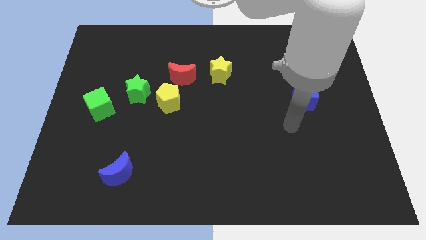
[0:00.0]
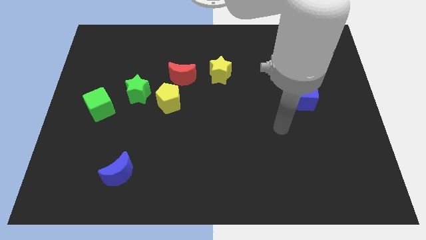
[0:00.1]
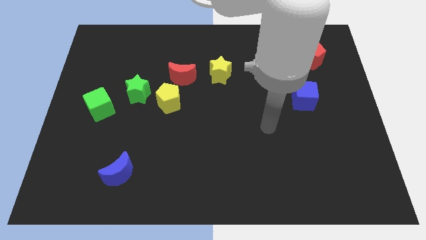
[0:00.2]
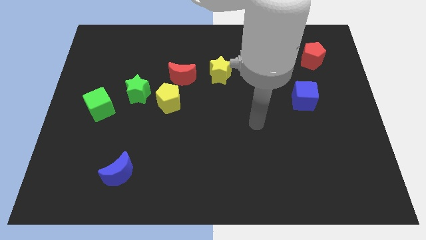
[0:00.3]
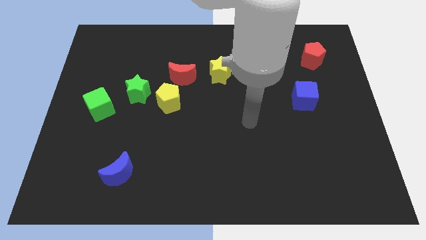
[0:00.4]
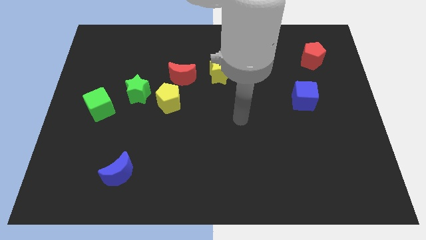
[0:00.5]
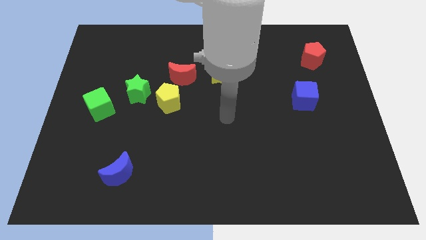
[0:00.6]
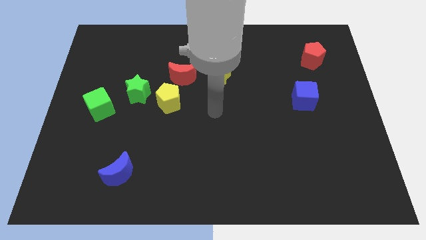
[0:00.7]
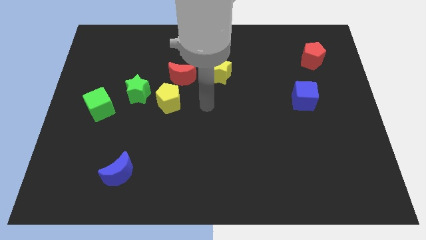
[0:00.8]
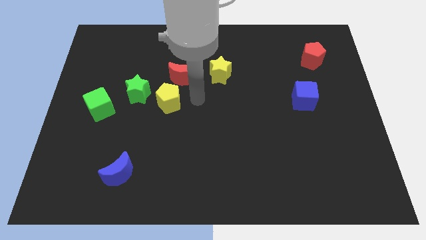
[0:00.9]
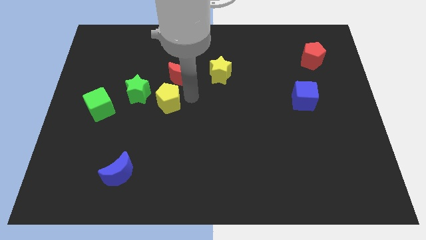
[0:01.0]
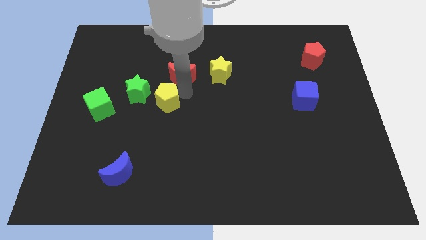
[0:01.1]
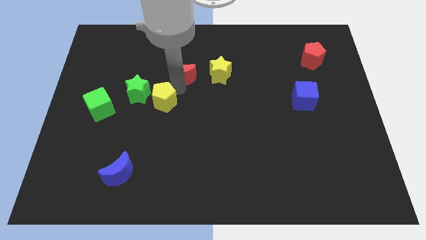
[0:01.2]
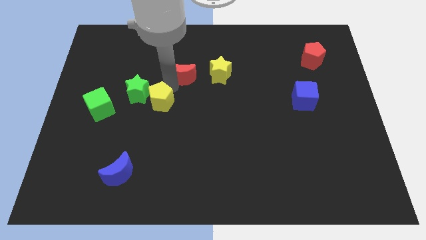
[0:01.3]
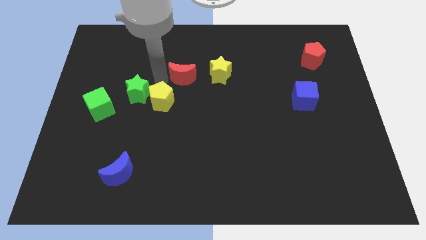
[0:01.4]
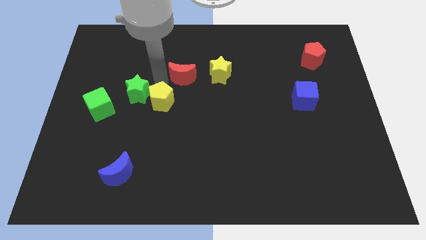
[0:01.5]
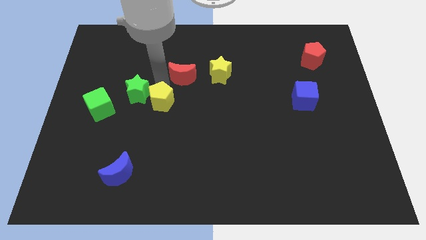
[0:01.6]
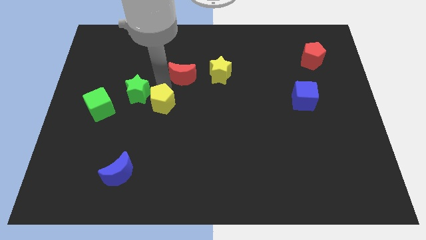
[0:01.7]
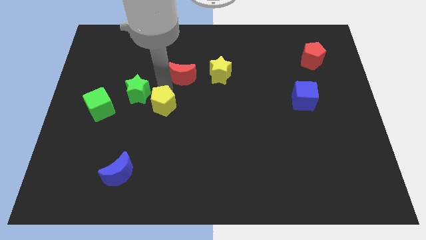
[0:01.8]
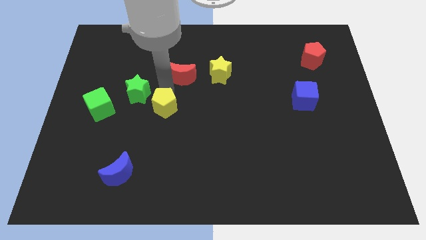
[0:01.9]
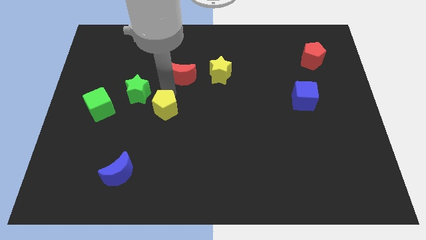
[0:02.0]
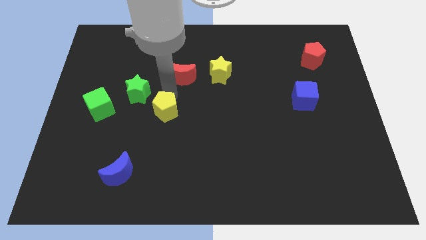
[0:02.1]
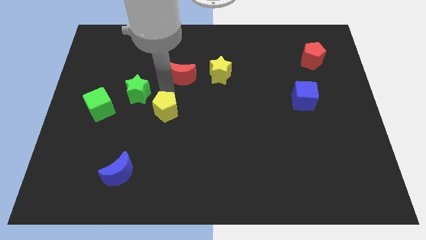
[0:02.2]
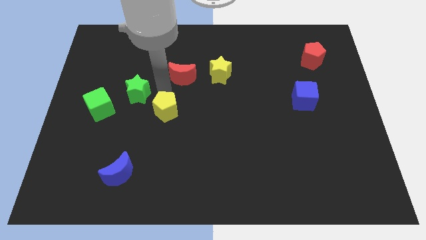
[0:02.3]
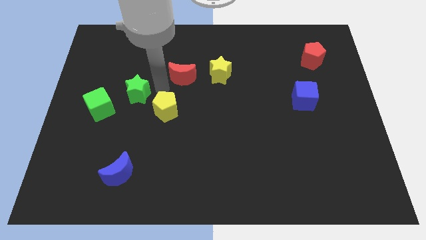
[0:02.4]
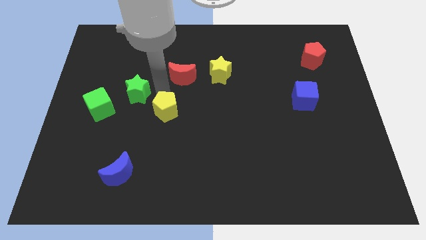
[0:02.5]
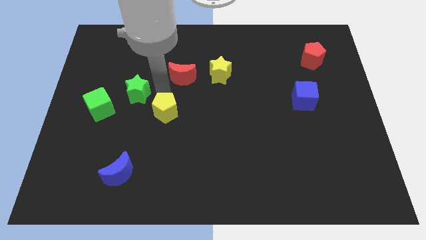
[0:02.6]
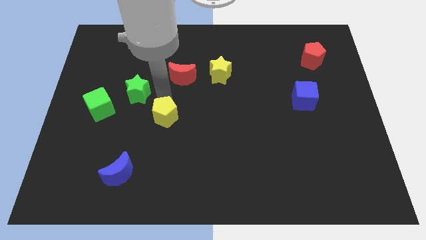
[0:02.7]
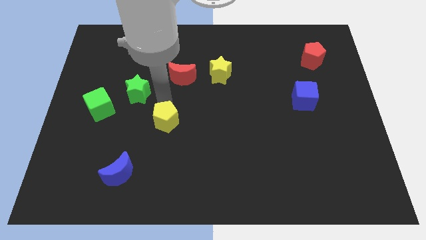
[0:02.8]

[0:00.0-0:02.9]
move the yellow pentagon away from the red moon and green star

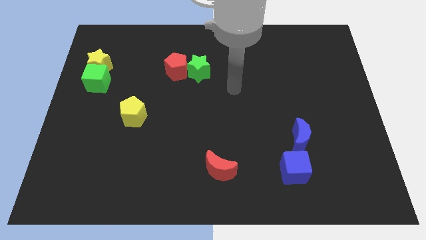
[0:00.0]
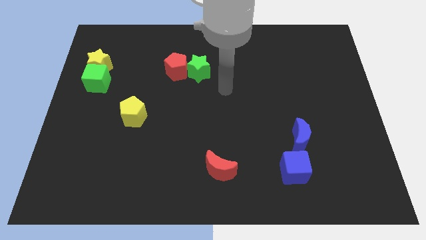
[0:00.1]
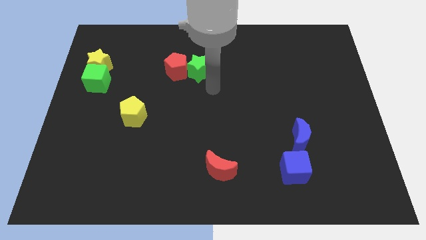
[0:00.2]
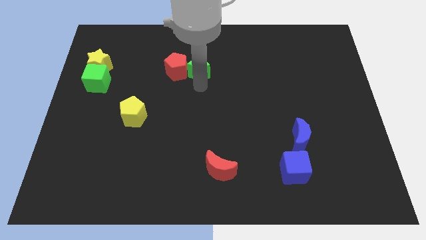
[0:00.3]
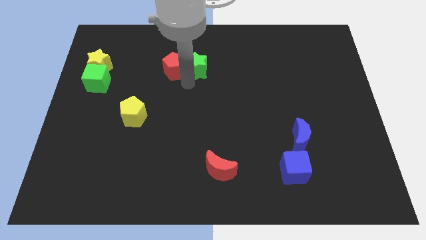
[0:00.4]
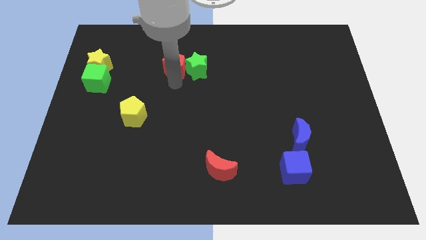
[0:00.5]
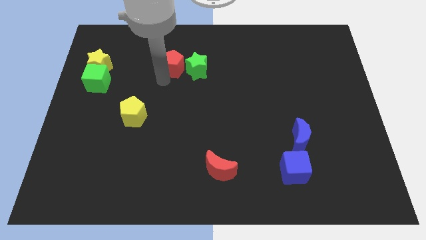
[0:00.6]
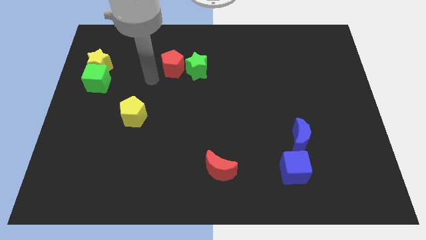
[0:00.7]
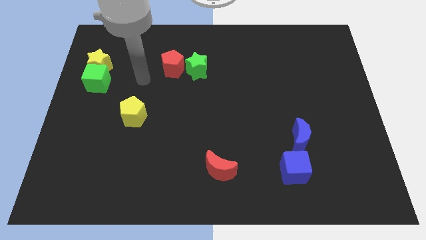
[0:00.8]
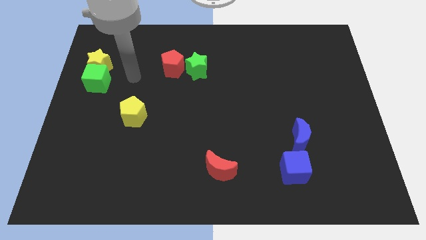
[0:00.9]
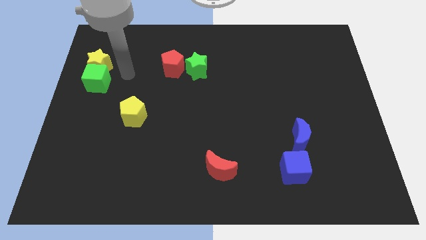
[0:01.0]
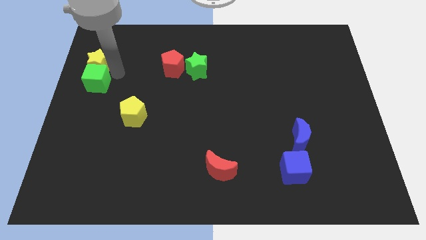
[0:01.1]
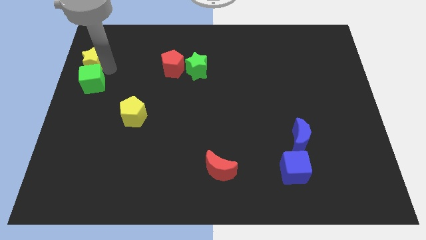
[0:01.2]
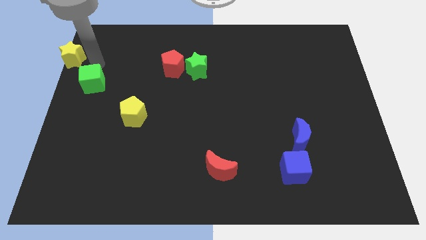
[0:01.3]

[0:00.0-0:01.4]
pull the green cube apart from the yellow star

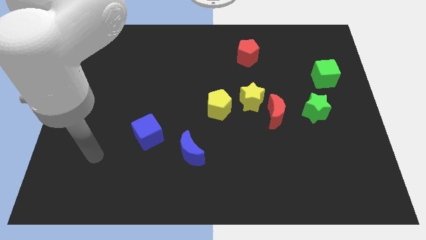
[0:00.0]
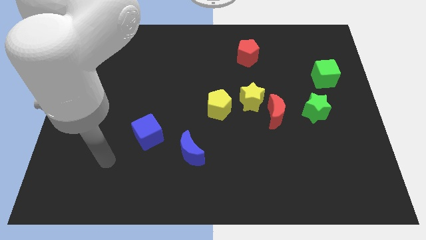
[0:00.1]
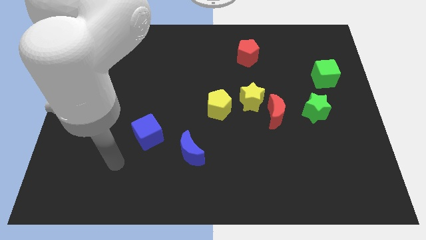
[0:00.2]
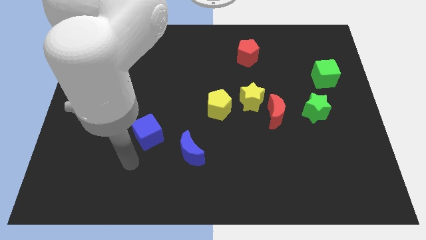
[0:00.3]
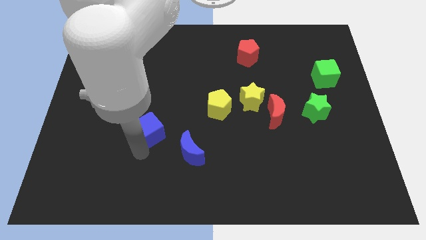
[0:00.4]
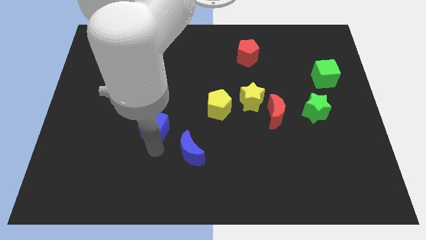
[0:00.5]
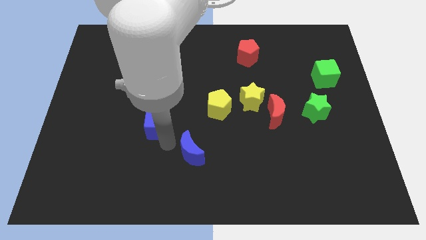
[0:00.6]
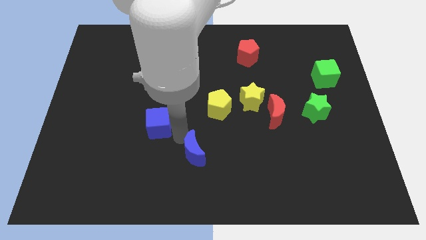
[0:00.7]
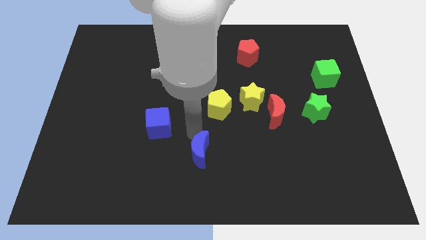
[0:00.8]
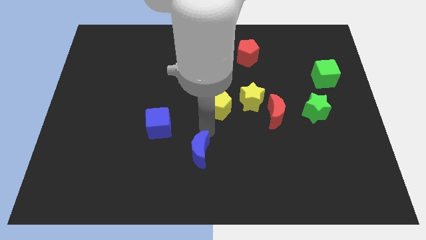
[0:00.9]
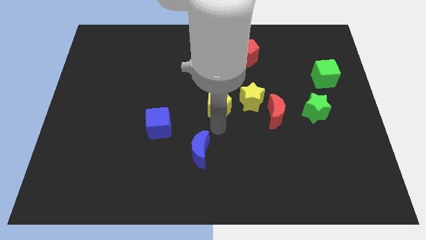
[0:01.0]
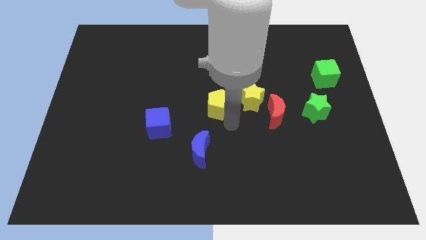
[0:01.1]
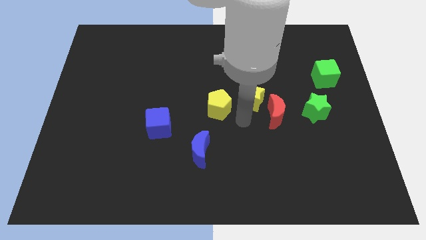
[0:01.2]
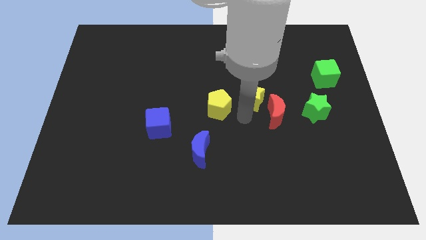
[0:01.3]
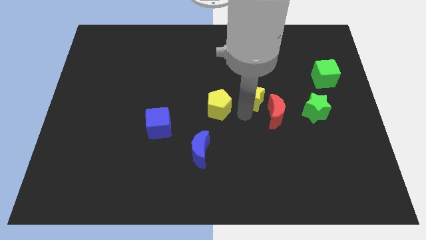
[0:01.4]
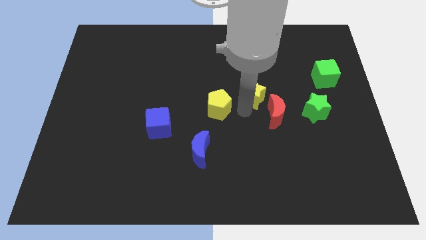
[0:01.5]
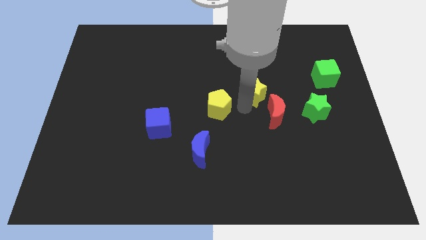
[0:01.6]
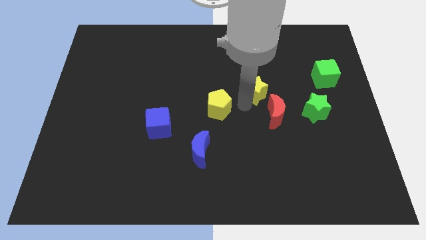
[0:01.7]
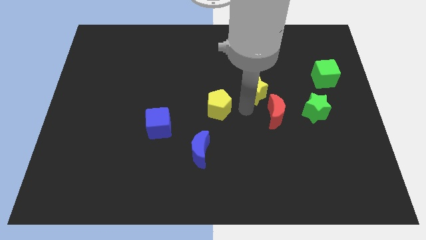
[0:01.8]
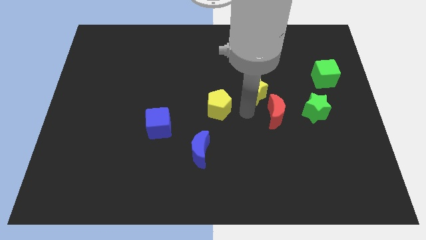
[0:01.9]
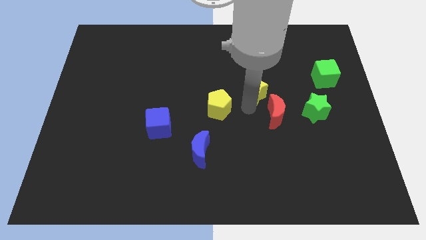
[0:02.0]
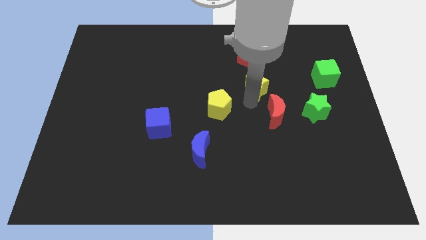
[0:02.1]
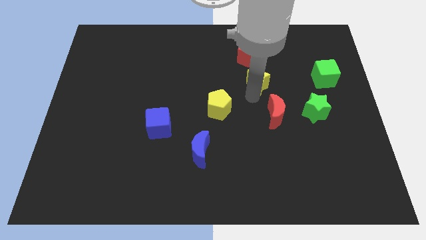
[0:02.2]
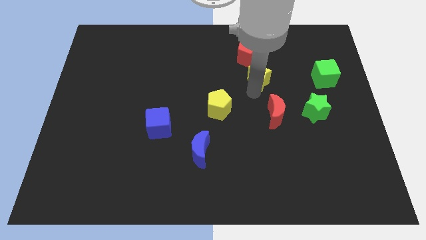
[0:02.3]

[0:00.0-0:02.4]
separate the yellow star from the red moon and yellow pentagon

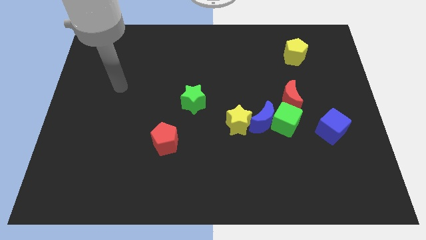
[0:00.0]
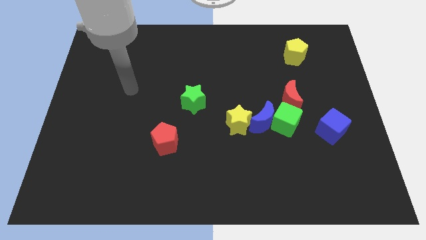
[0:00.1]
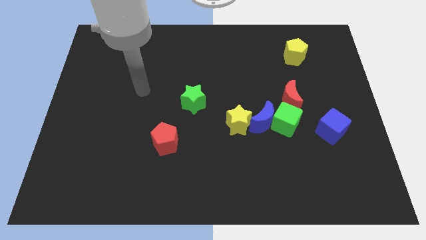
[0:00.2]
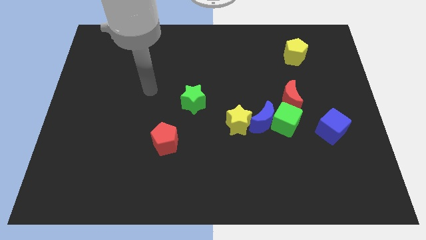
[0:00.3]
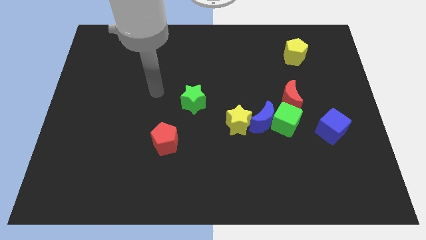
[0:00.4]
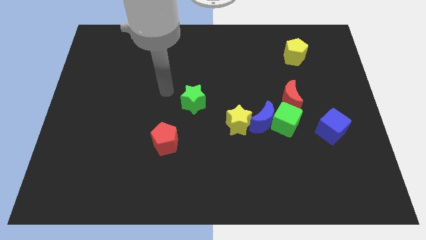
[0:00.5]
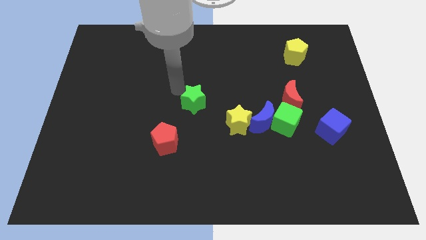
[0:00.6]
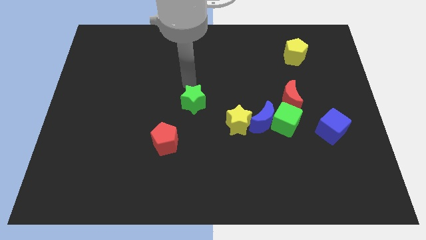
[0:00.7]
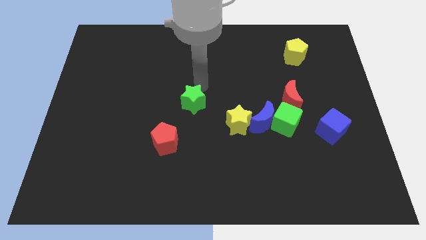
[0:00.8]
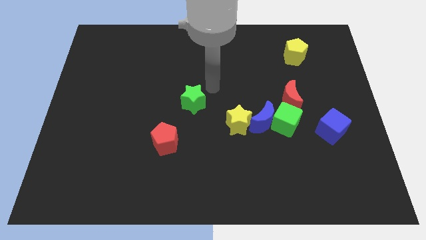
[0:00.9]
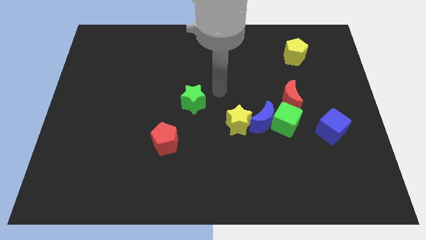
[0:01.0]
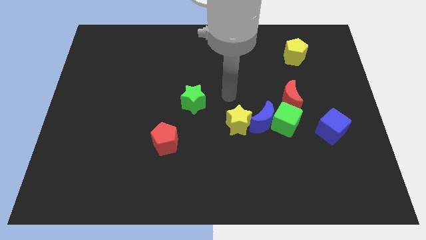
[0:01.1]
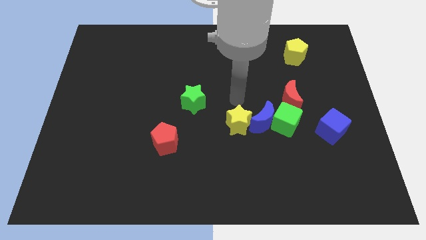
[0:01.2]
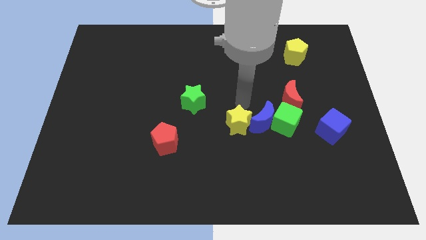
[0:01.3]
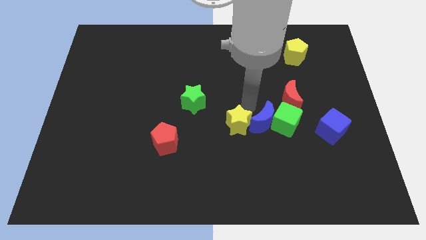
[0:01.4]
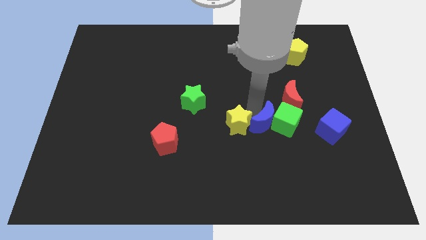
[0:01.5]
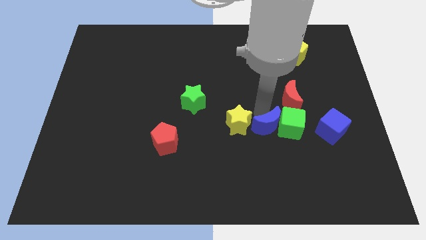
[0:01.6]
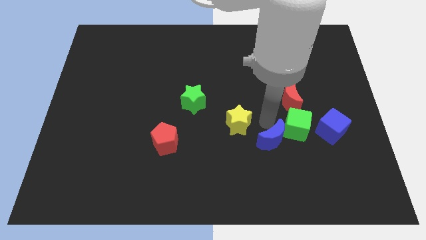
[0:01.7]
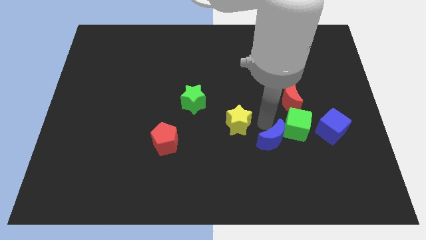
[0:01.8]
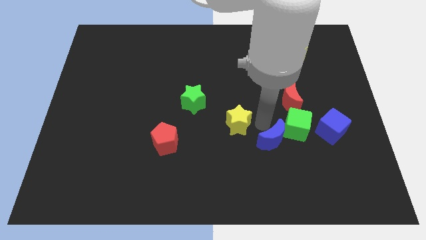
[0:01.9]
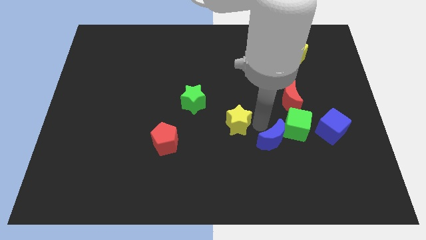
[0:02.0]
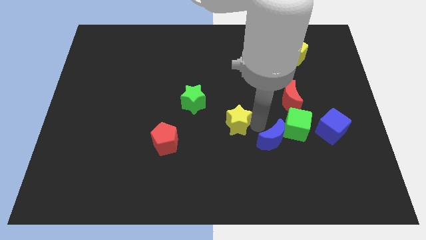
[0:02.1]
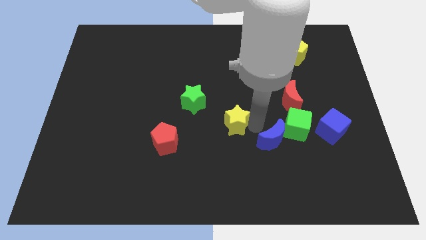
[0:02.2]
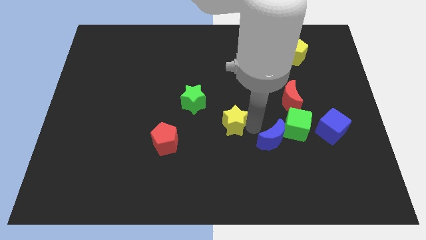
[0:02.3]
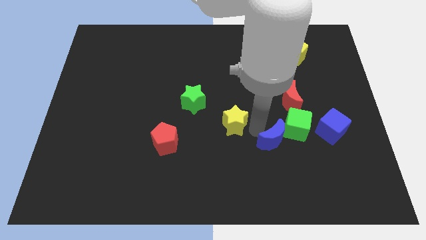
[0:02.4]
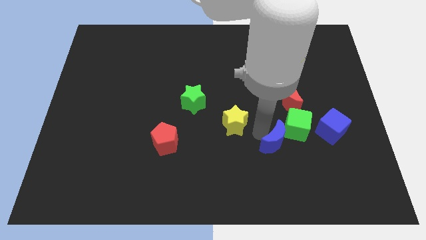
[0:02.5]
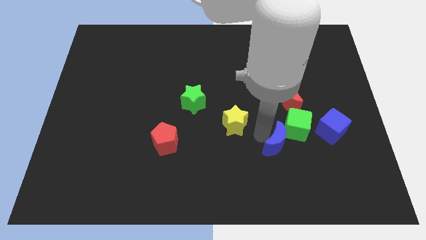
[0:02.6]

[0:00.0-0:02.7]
pull the yellow star apart from the blue moon
